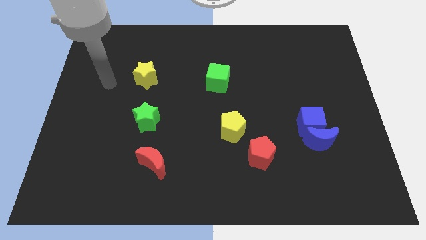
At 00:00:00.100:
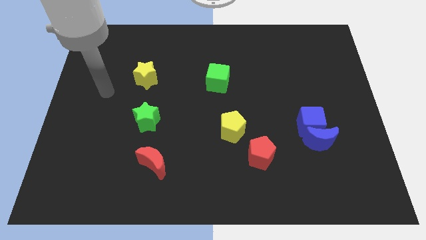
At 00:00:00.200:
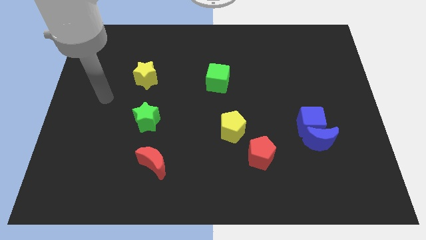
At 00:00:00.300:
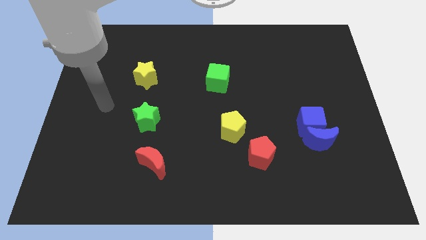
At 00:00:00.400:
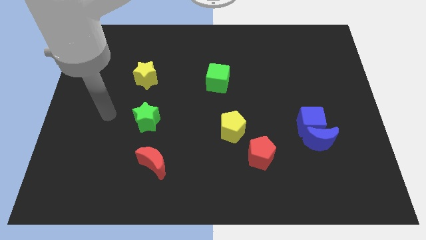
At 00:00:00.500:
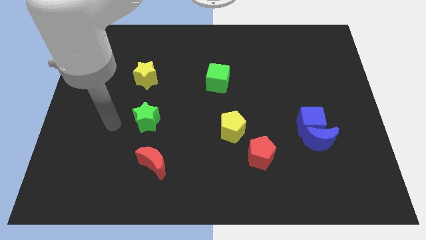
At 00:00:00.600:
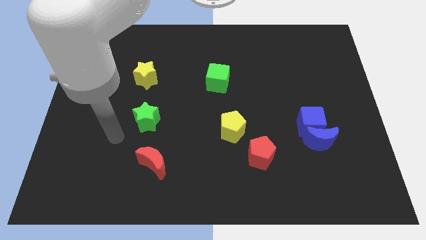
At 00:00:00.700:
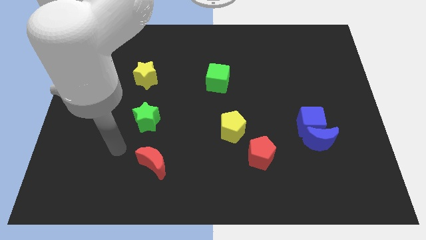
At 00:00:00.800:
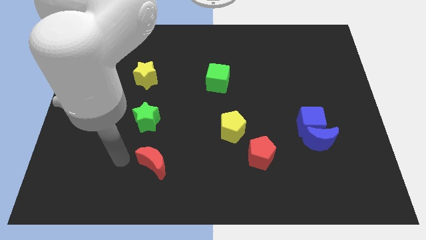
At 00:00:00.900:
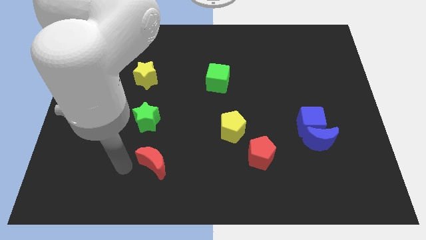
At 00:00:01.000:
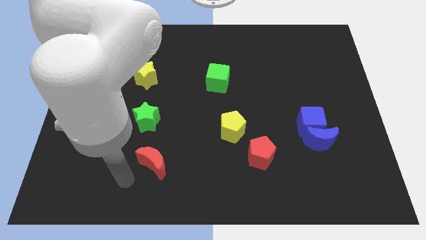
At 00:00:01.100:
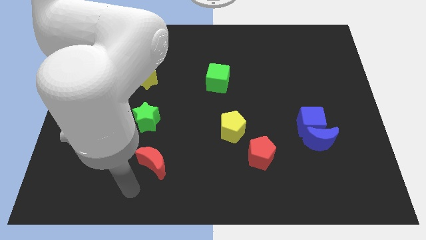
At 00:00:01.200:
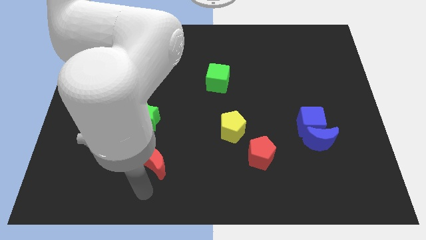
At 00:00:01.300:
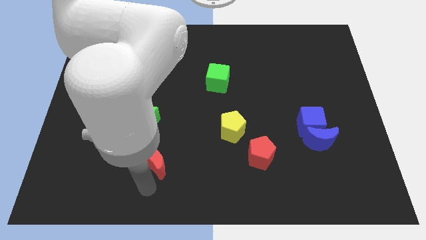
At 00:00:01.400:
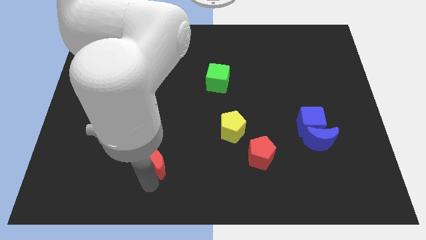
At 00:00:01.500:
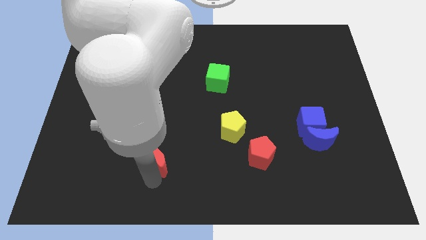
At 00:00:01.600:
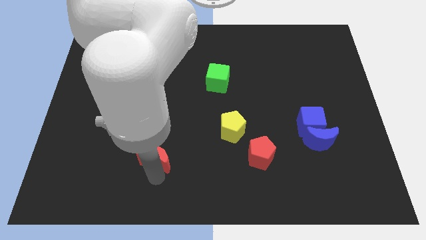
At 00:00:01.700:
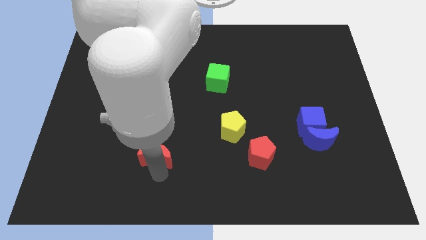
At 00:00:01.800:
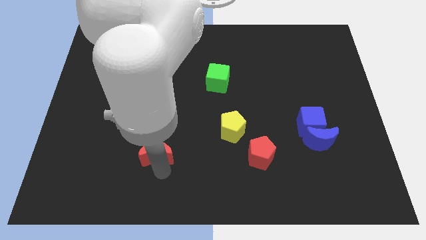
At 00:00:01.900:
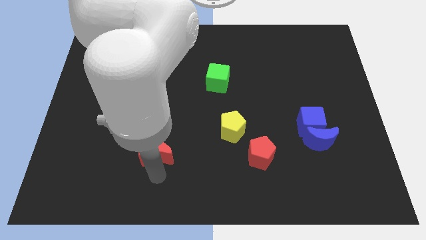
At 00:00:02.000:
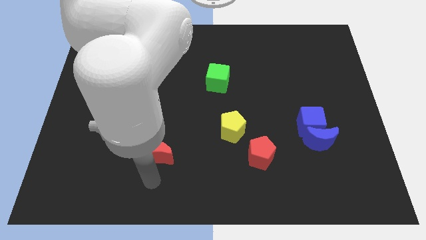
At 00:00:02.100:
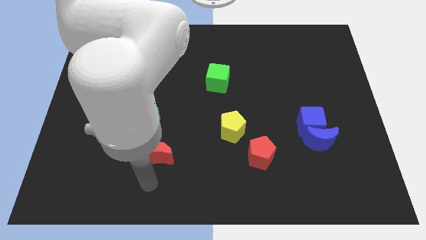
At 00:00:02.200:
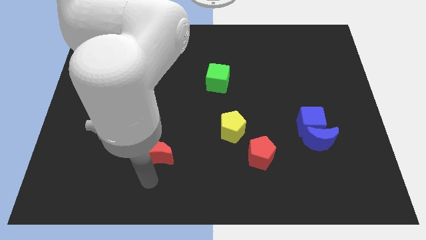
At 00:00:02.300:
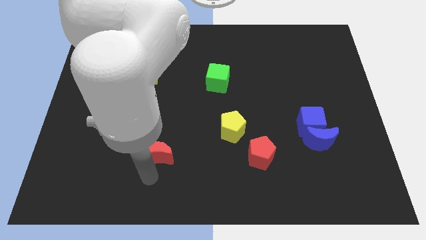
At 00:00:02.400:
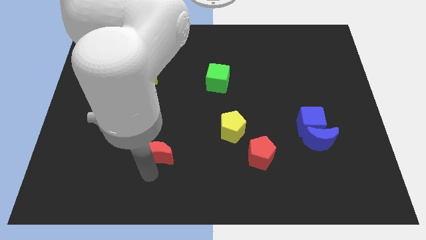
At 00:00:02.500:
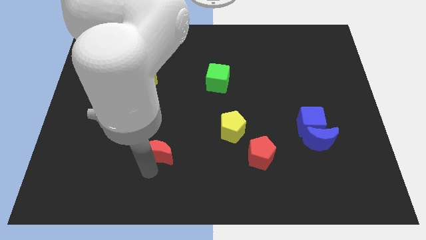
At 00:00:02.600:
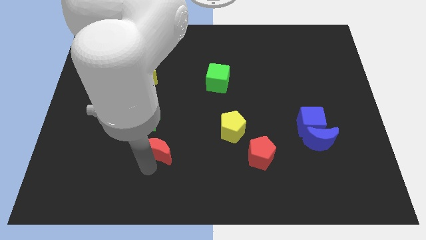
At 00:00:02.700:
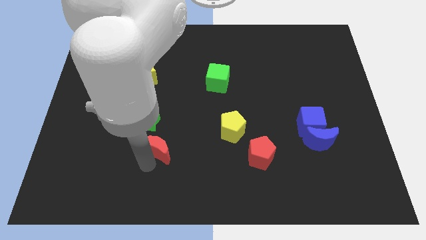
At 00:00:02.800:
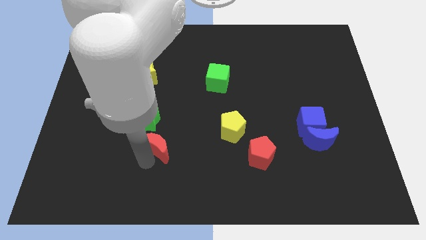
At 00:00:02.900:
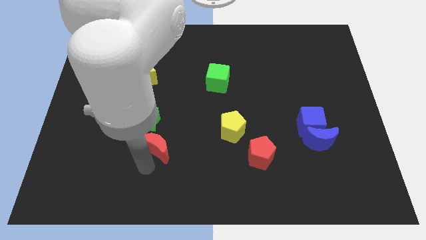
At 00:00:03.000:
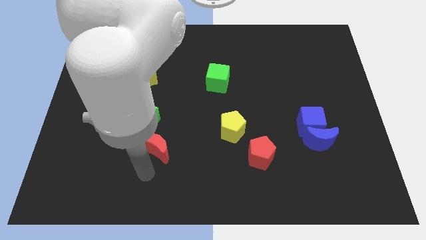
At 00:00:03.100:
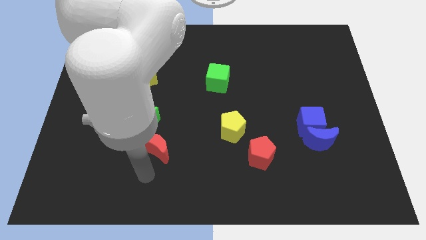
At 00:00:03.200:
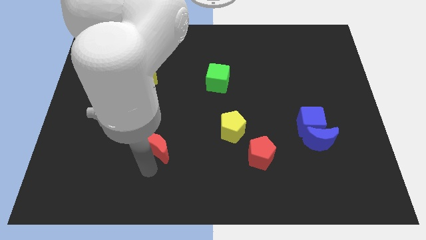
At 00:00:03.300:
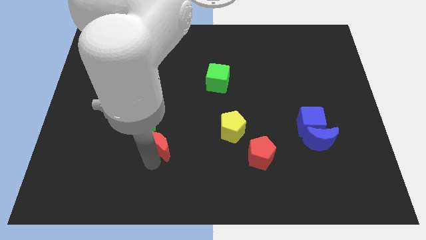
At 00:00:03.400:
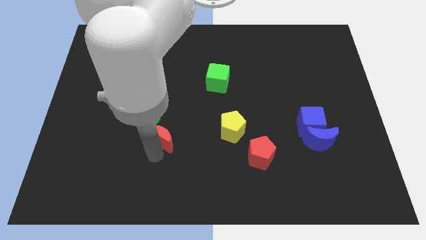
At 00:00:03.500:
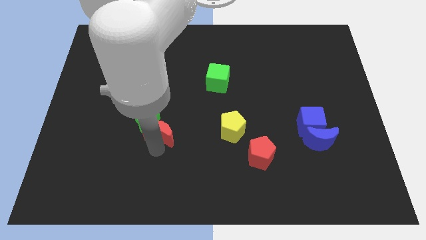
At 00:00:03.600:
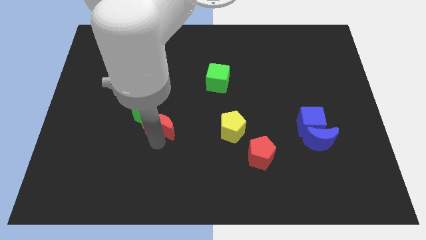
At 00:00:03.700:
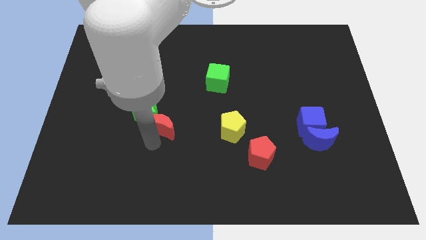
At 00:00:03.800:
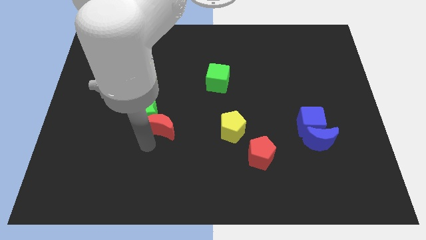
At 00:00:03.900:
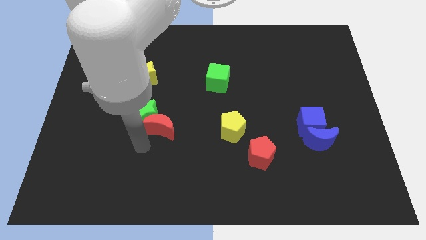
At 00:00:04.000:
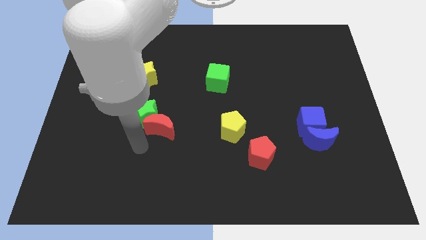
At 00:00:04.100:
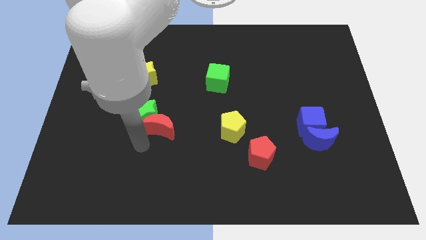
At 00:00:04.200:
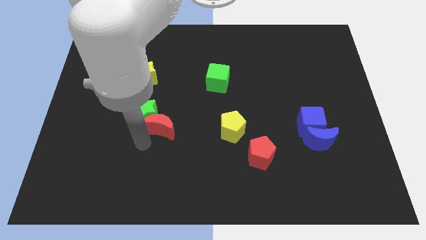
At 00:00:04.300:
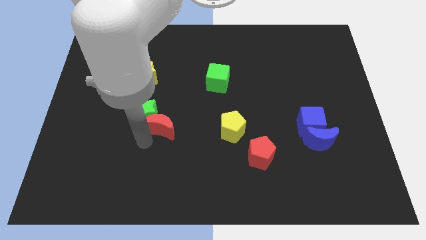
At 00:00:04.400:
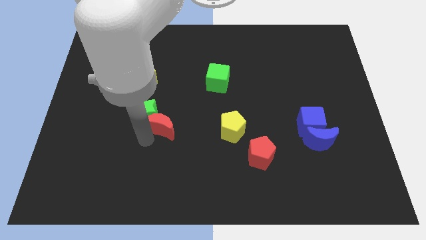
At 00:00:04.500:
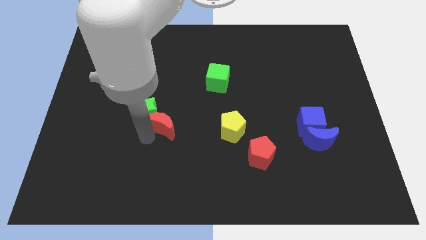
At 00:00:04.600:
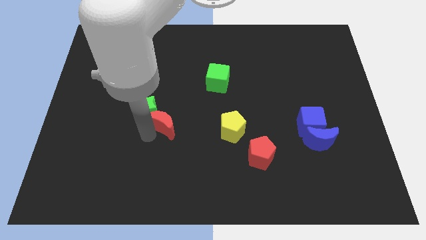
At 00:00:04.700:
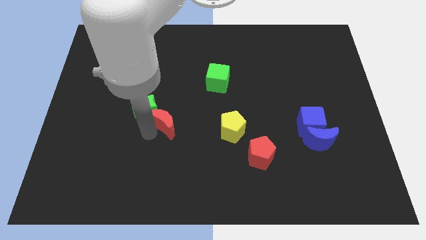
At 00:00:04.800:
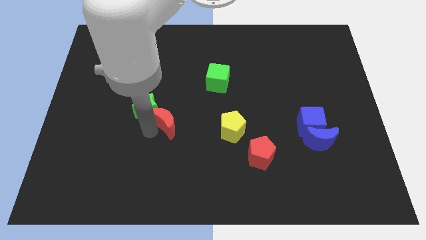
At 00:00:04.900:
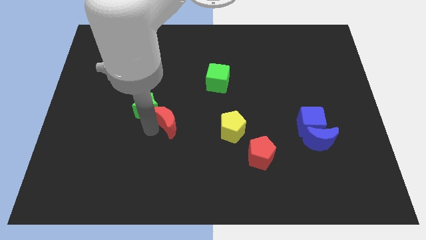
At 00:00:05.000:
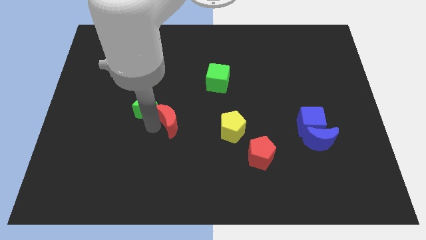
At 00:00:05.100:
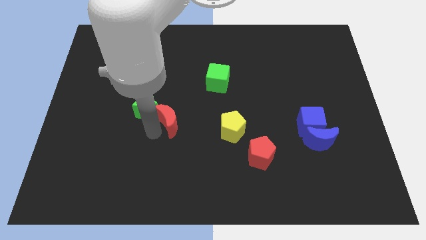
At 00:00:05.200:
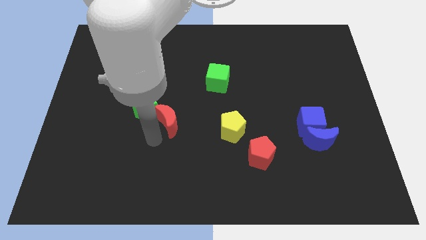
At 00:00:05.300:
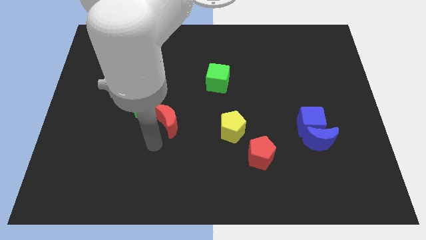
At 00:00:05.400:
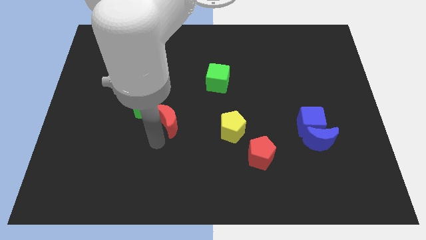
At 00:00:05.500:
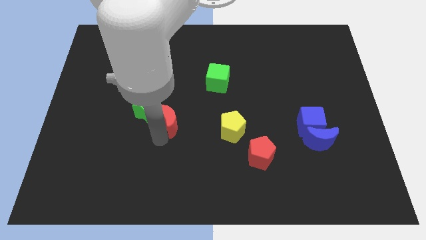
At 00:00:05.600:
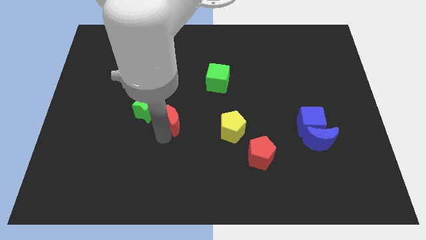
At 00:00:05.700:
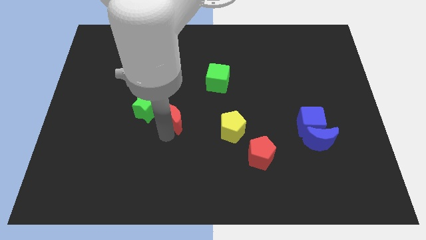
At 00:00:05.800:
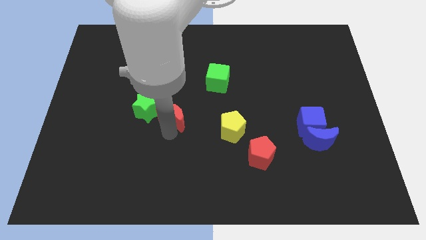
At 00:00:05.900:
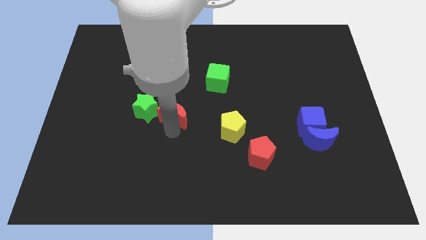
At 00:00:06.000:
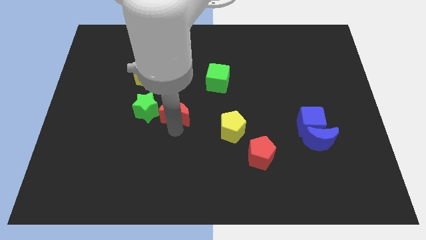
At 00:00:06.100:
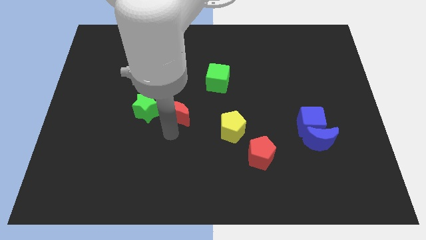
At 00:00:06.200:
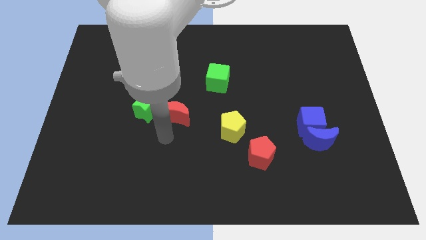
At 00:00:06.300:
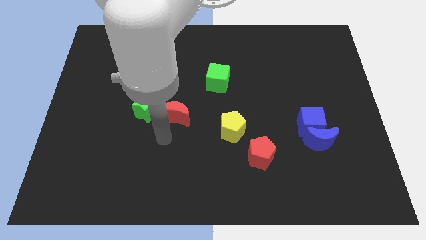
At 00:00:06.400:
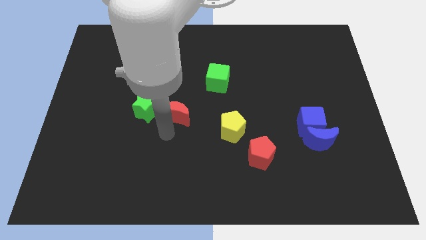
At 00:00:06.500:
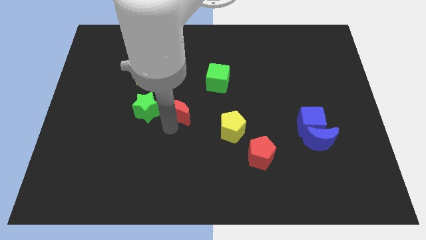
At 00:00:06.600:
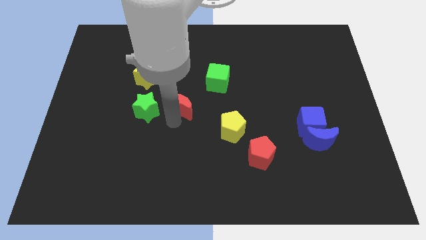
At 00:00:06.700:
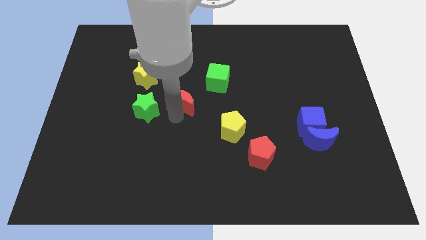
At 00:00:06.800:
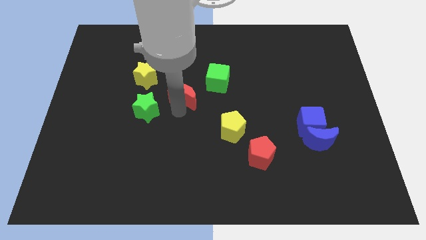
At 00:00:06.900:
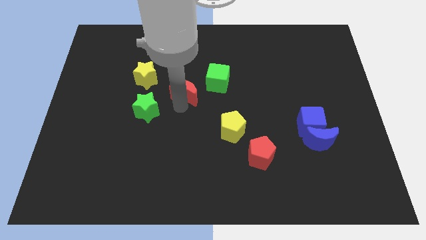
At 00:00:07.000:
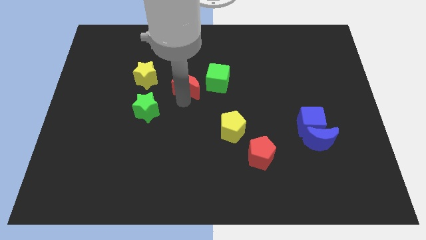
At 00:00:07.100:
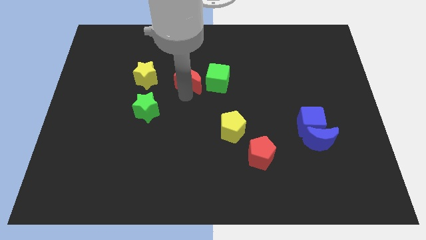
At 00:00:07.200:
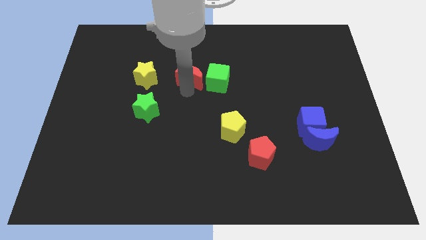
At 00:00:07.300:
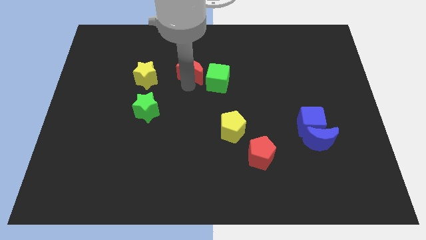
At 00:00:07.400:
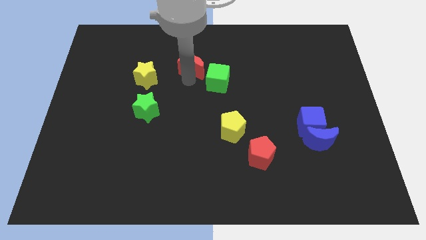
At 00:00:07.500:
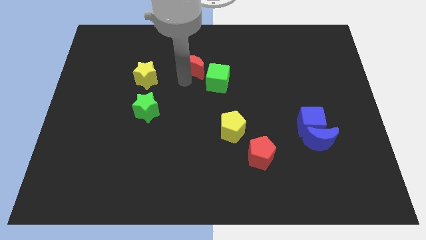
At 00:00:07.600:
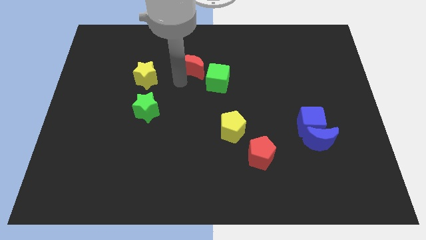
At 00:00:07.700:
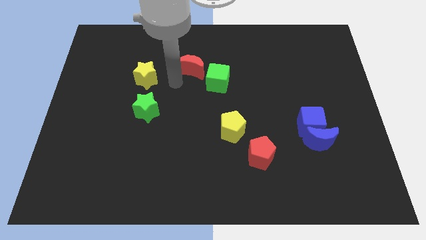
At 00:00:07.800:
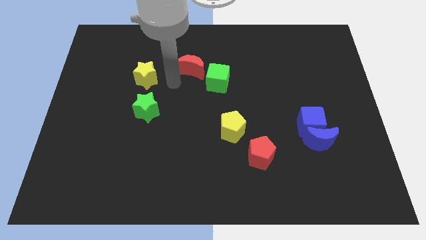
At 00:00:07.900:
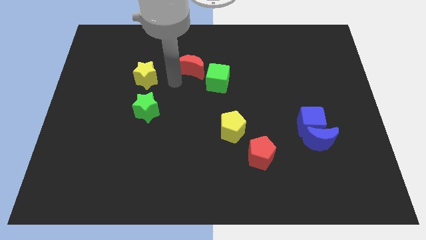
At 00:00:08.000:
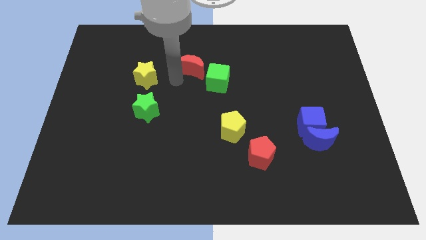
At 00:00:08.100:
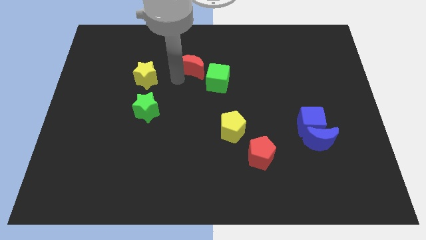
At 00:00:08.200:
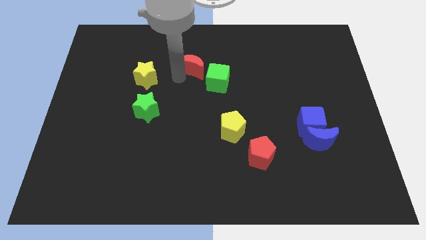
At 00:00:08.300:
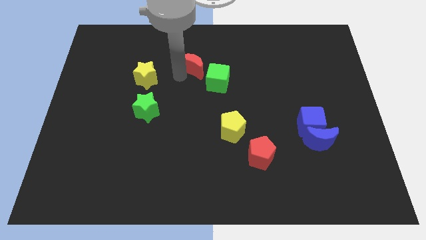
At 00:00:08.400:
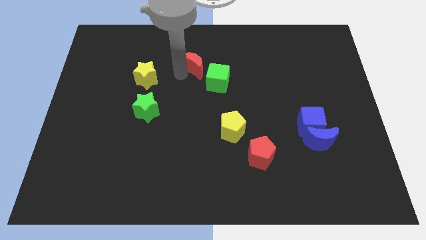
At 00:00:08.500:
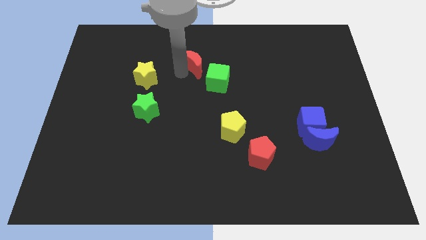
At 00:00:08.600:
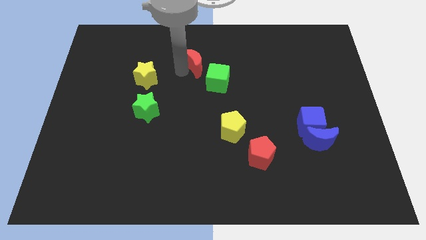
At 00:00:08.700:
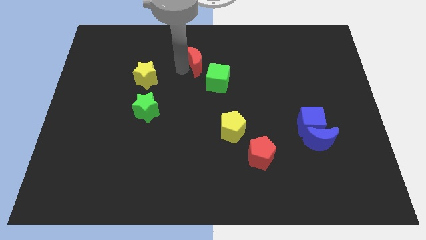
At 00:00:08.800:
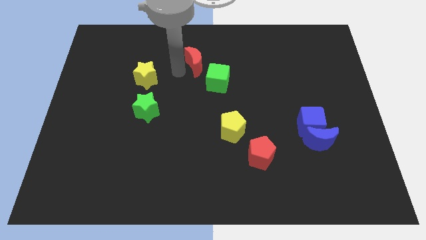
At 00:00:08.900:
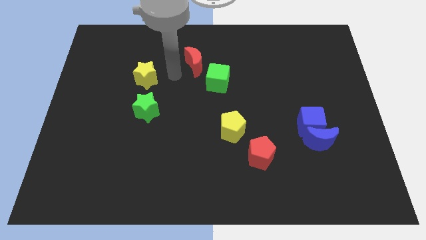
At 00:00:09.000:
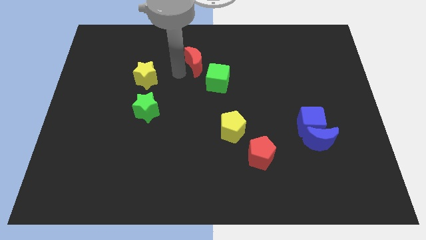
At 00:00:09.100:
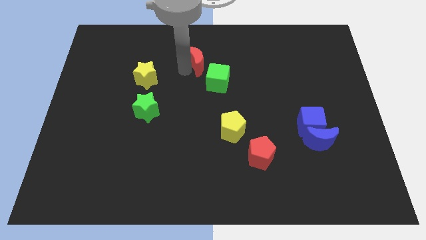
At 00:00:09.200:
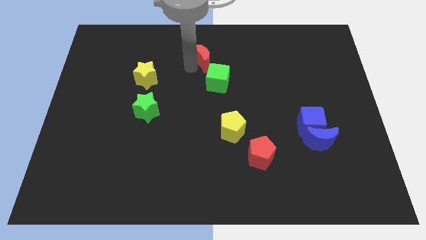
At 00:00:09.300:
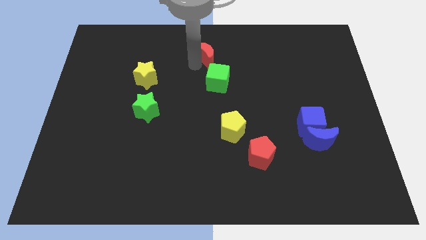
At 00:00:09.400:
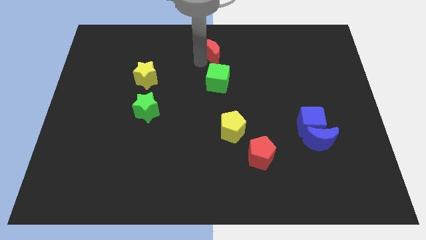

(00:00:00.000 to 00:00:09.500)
move the red moon to the top side
